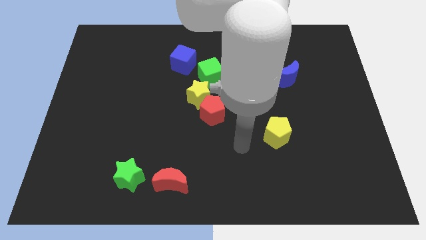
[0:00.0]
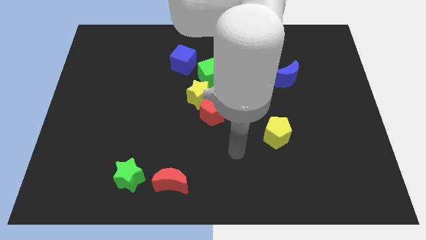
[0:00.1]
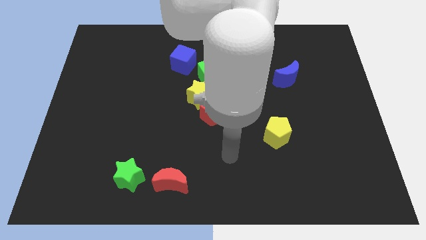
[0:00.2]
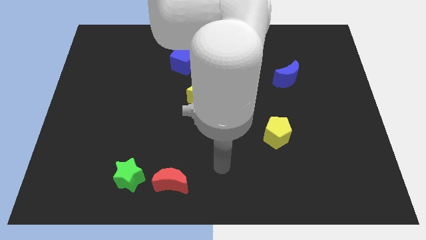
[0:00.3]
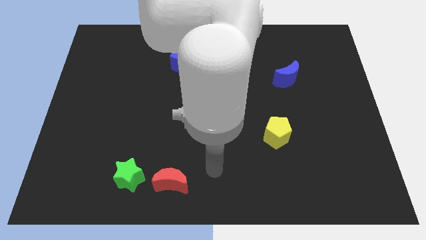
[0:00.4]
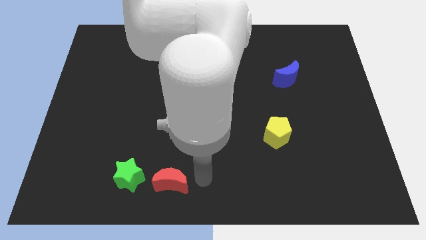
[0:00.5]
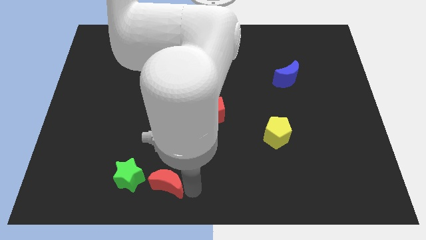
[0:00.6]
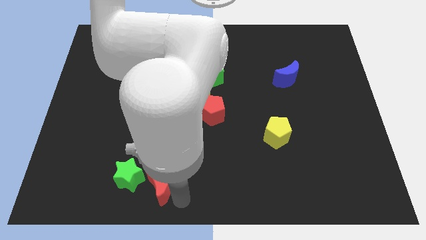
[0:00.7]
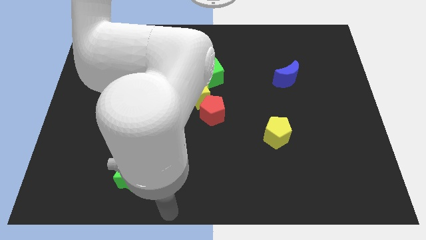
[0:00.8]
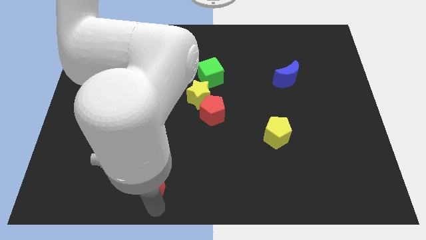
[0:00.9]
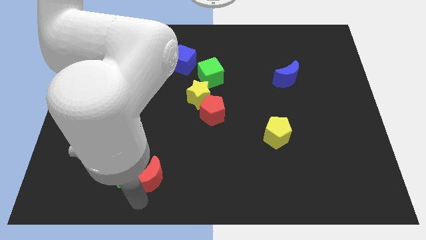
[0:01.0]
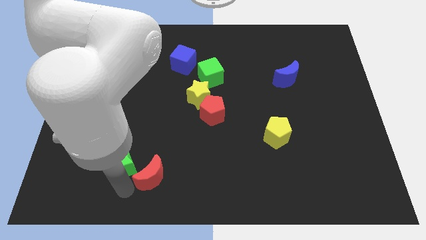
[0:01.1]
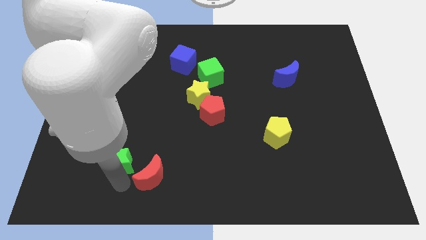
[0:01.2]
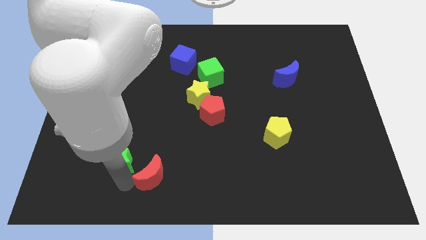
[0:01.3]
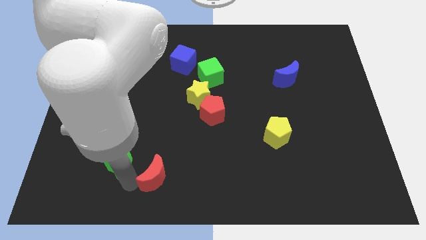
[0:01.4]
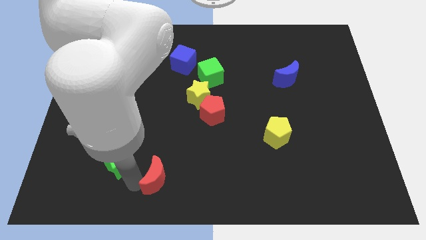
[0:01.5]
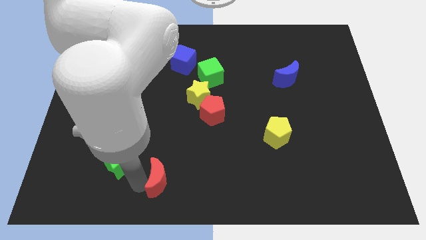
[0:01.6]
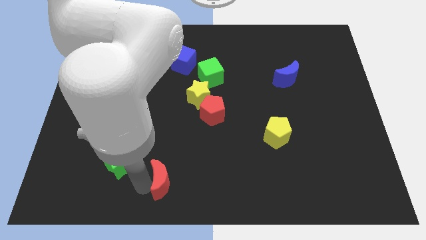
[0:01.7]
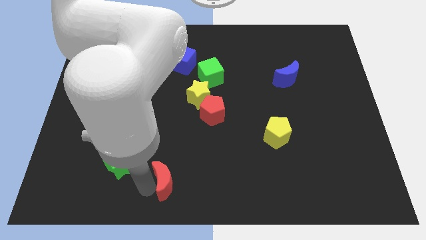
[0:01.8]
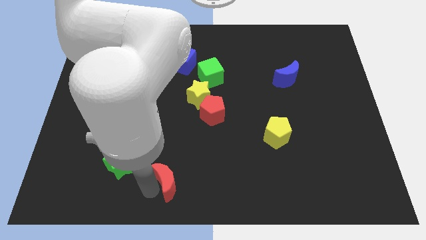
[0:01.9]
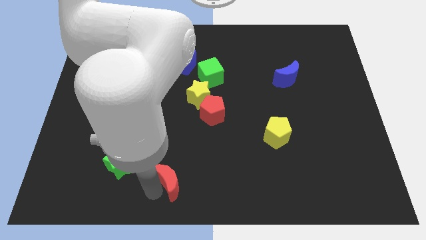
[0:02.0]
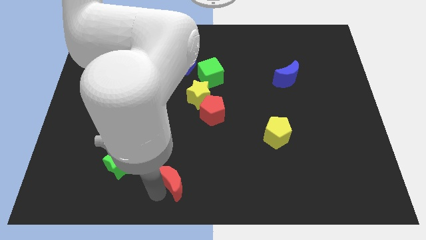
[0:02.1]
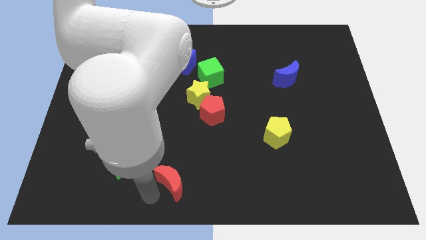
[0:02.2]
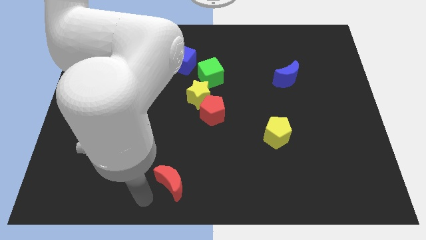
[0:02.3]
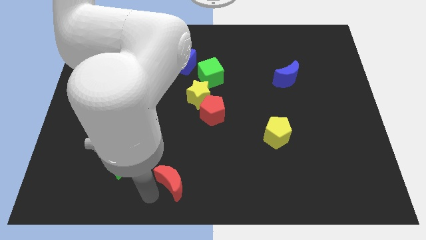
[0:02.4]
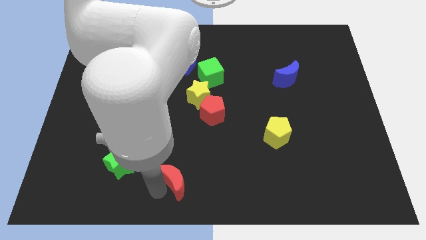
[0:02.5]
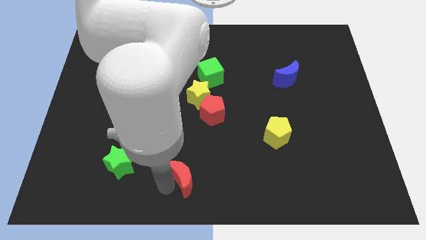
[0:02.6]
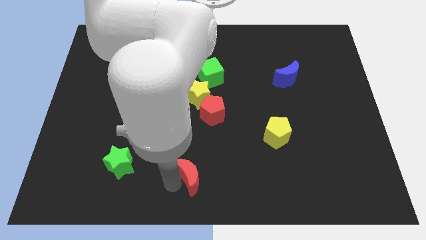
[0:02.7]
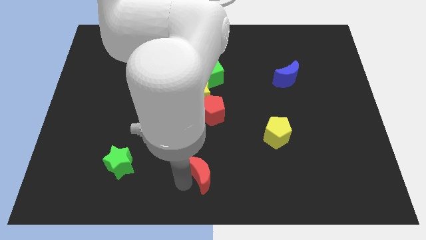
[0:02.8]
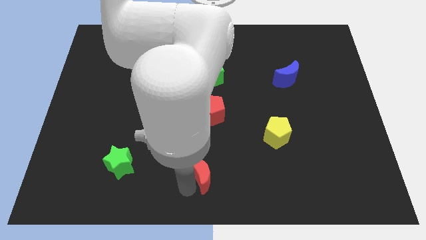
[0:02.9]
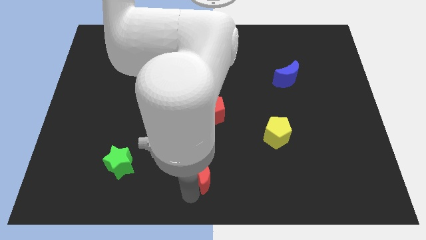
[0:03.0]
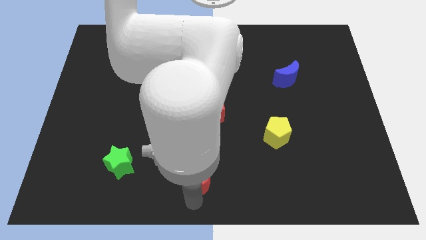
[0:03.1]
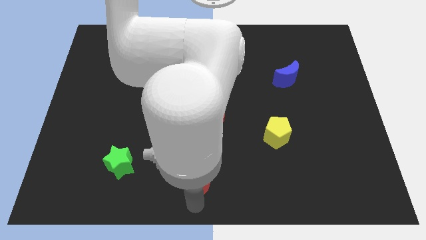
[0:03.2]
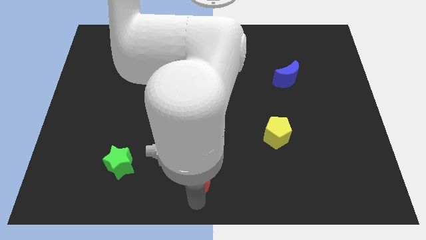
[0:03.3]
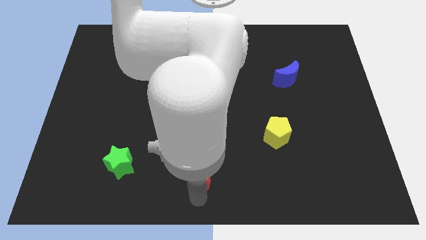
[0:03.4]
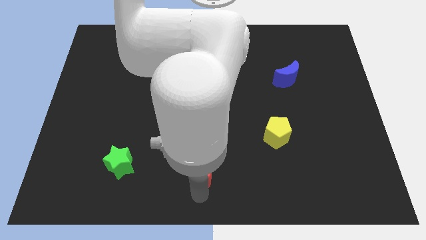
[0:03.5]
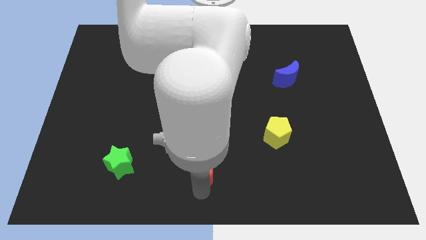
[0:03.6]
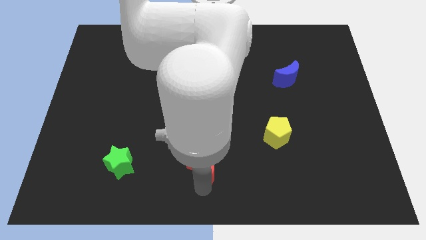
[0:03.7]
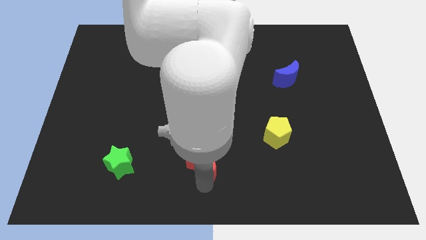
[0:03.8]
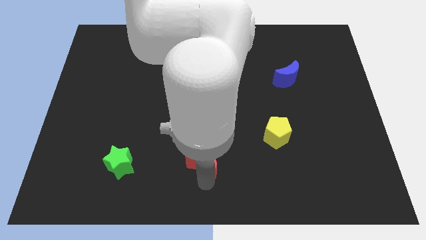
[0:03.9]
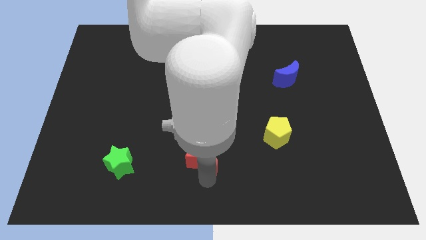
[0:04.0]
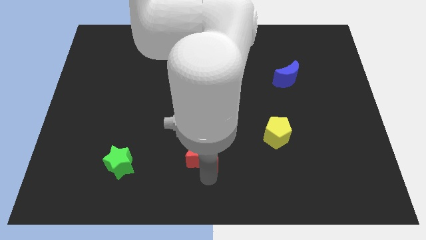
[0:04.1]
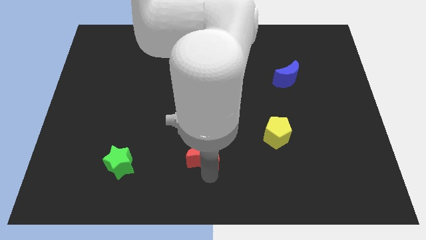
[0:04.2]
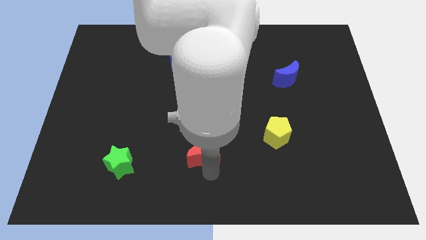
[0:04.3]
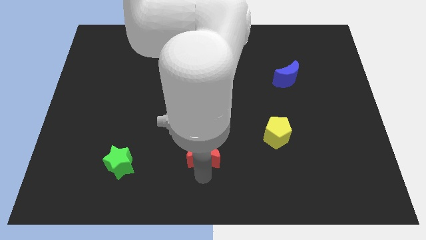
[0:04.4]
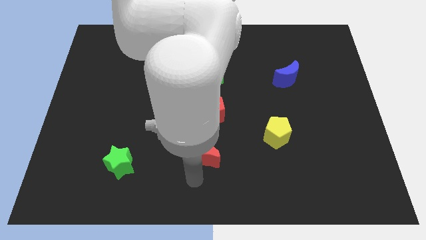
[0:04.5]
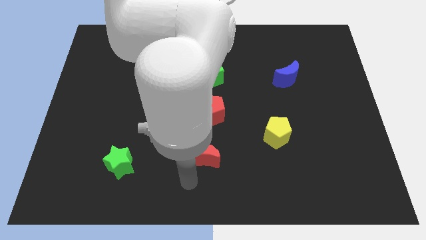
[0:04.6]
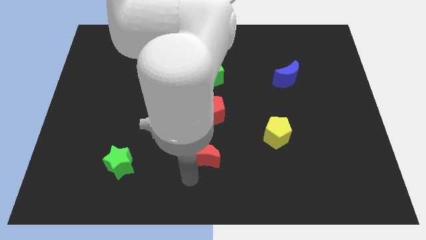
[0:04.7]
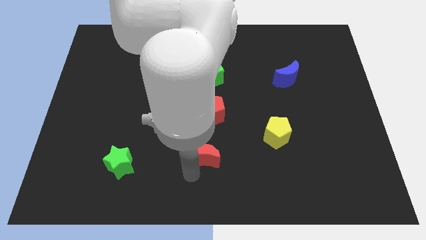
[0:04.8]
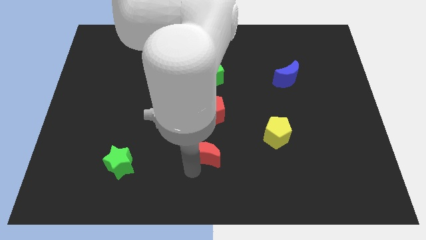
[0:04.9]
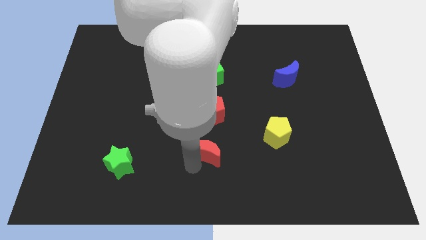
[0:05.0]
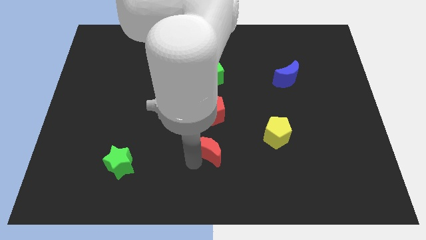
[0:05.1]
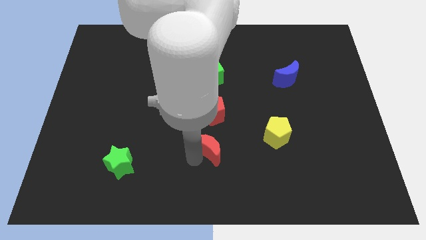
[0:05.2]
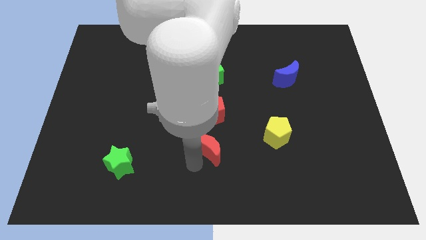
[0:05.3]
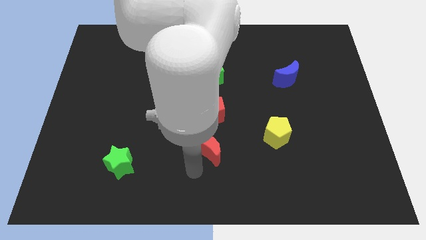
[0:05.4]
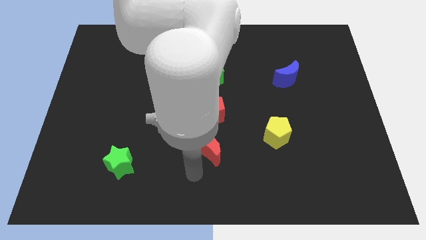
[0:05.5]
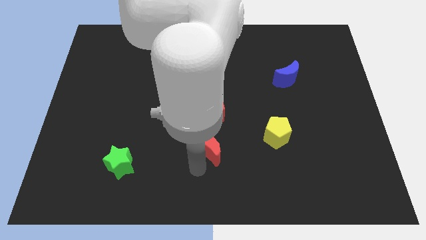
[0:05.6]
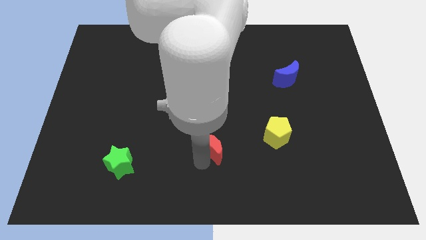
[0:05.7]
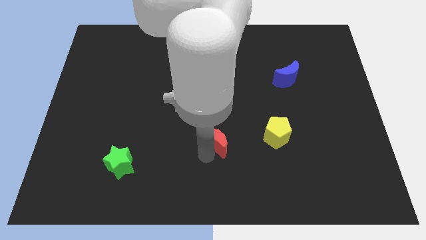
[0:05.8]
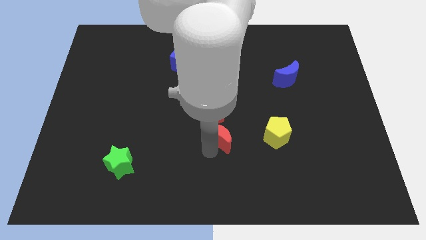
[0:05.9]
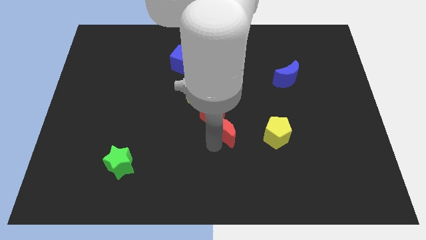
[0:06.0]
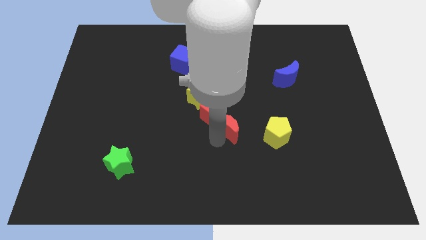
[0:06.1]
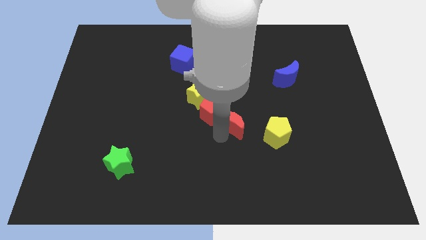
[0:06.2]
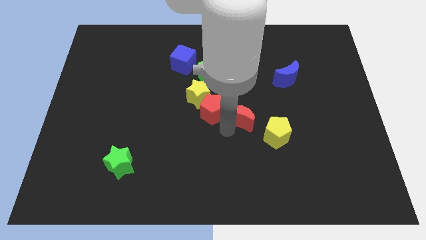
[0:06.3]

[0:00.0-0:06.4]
push the red moon upwards and then to the right

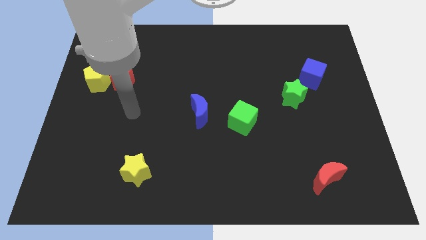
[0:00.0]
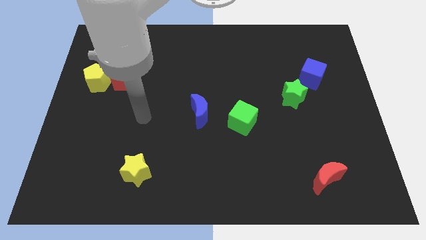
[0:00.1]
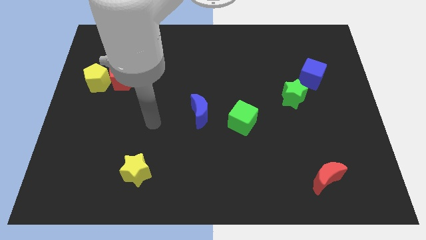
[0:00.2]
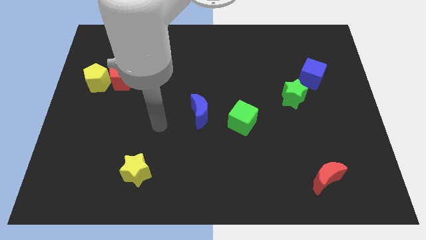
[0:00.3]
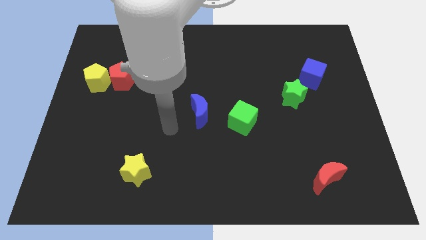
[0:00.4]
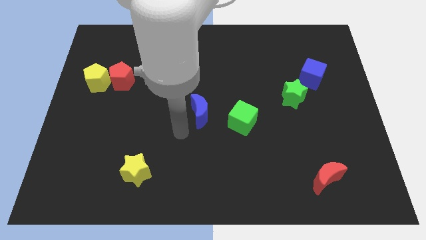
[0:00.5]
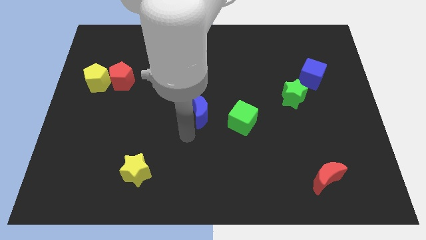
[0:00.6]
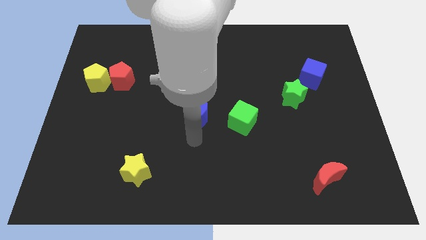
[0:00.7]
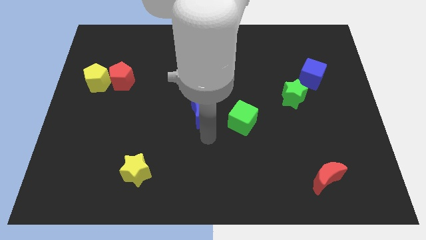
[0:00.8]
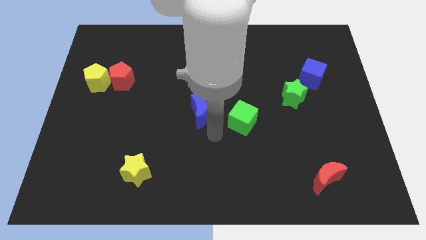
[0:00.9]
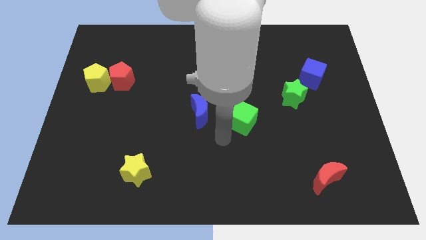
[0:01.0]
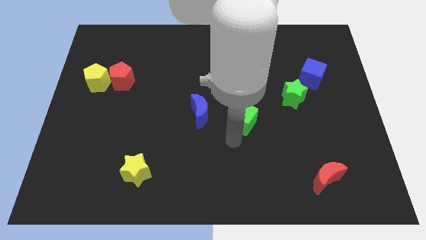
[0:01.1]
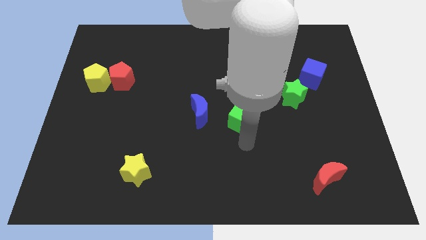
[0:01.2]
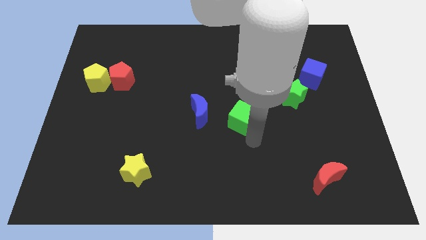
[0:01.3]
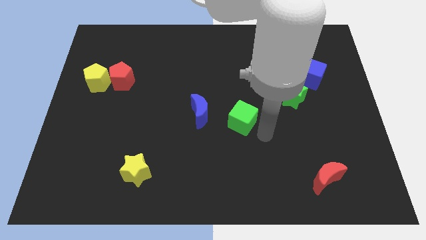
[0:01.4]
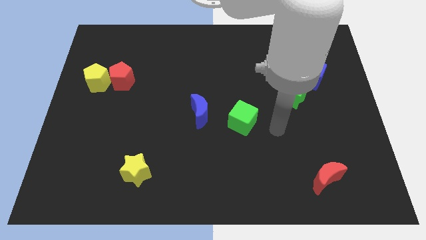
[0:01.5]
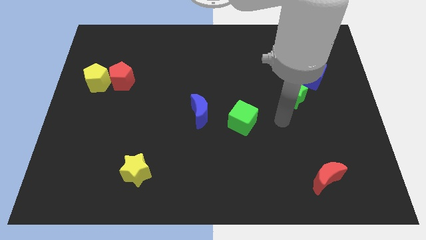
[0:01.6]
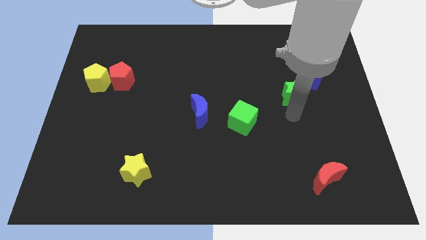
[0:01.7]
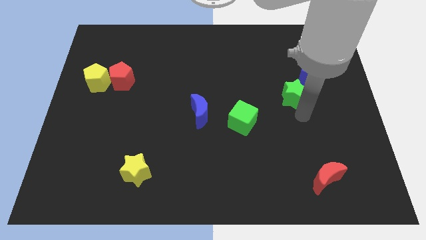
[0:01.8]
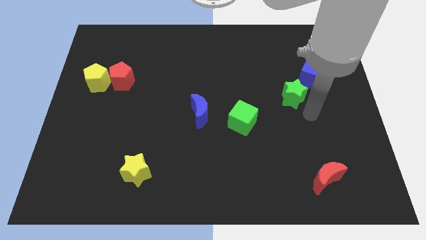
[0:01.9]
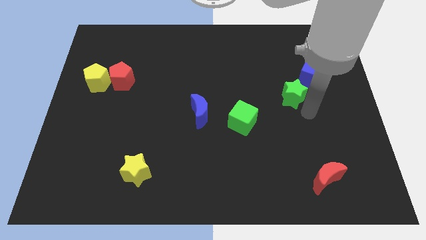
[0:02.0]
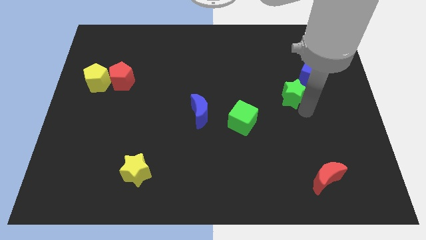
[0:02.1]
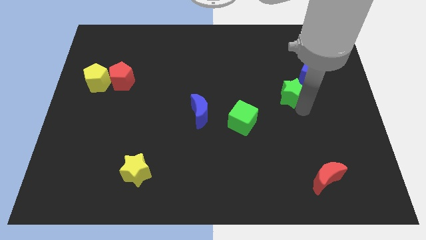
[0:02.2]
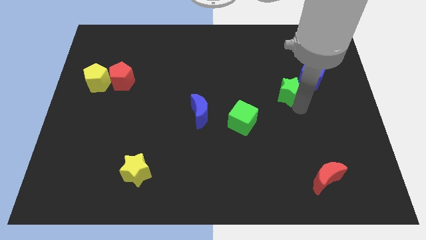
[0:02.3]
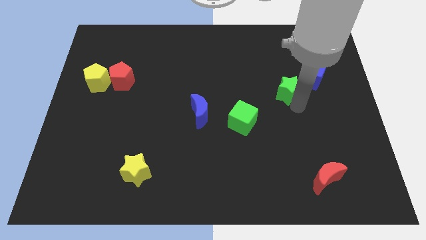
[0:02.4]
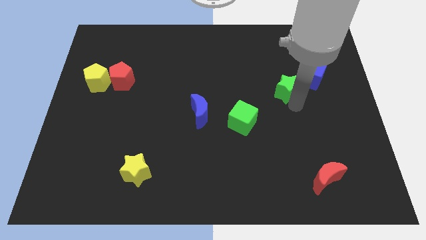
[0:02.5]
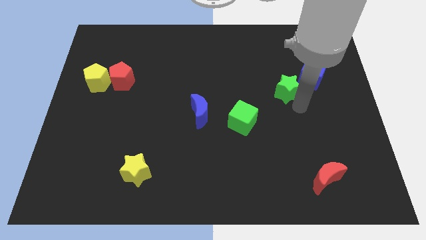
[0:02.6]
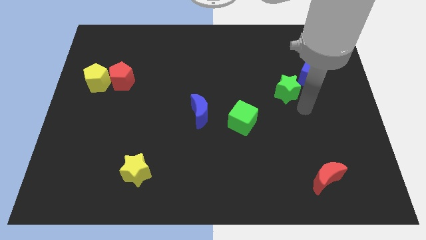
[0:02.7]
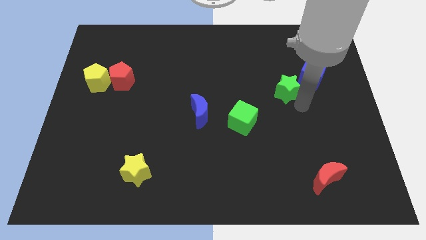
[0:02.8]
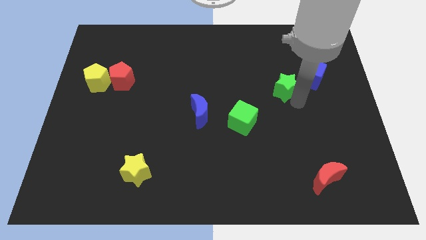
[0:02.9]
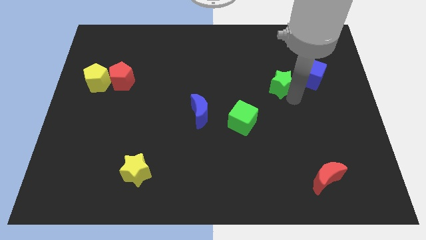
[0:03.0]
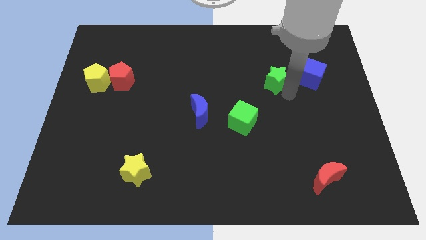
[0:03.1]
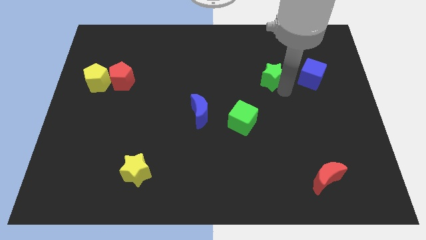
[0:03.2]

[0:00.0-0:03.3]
move the green star a bit up and then to the left
